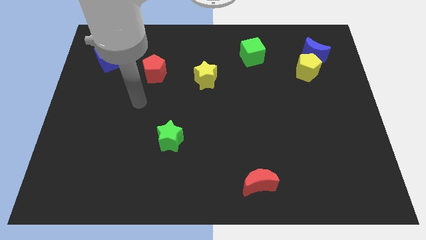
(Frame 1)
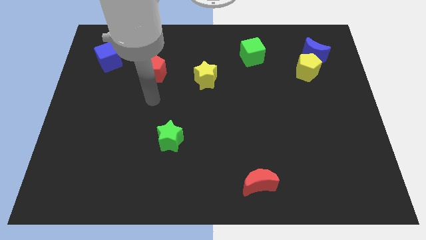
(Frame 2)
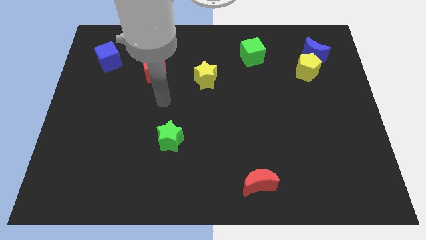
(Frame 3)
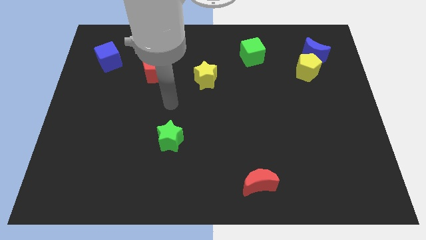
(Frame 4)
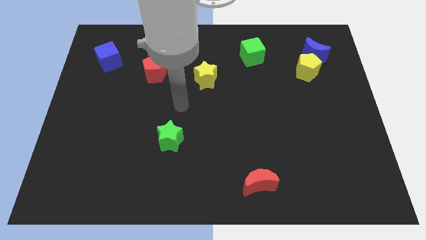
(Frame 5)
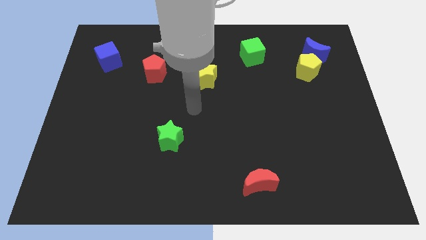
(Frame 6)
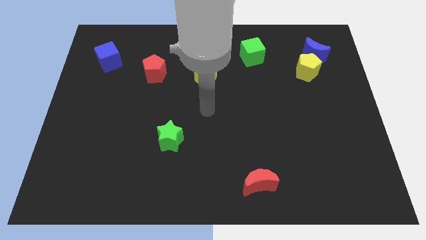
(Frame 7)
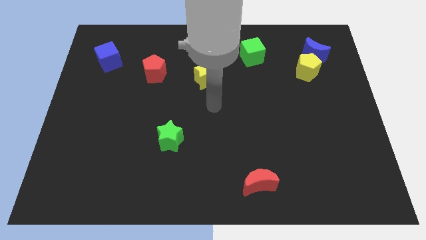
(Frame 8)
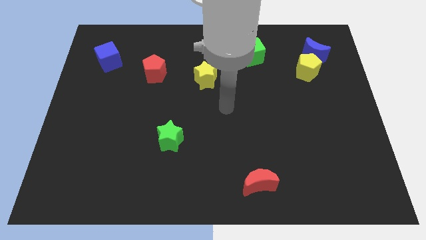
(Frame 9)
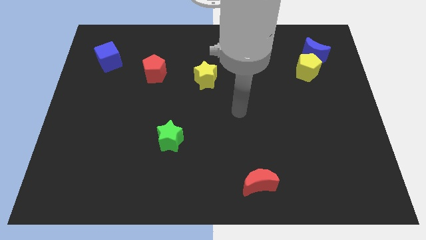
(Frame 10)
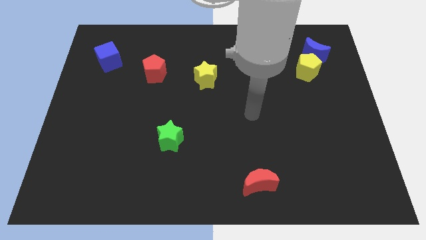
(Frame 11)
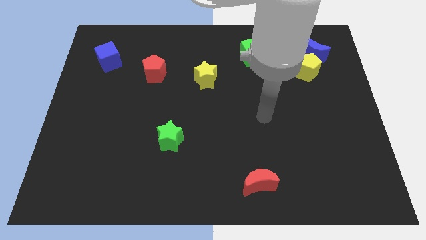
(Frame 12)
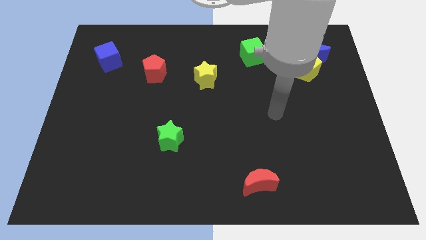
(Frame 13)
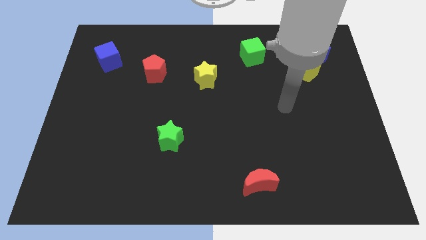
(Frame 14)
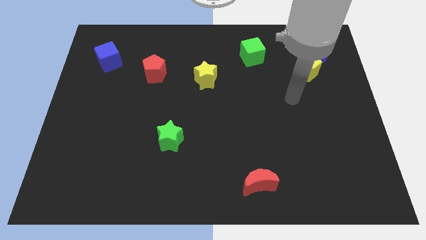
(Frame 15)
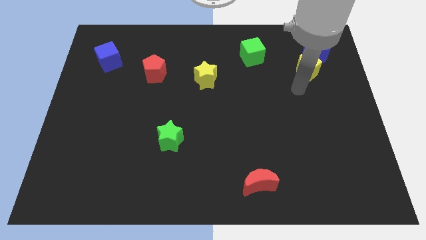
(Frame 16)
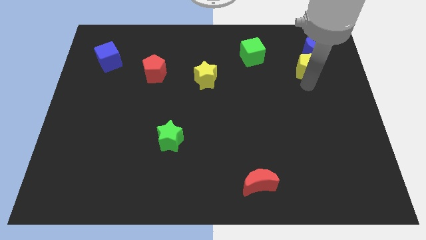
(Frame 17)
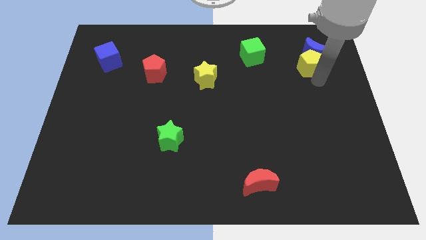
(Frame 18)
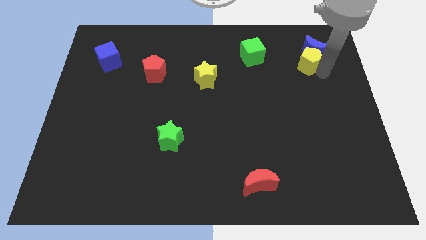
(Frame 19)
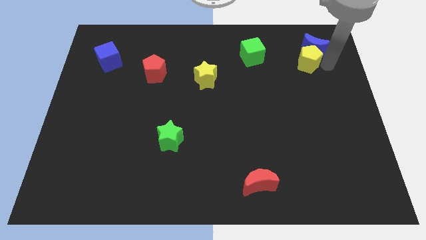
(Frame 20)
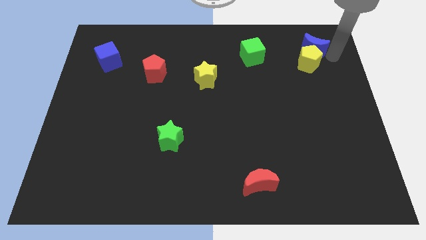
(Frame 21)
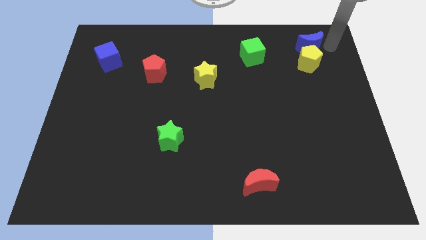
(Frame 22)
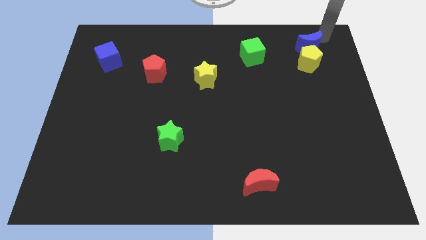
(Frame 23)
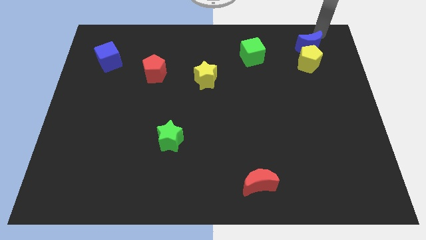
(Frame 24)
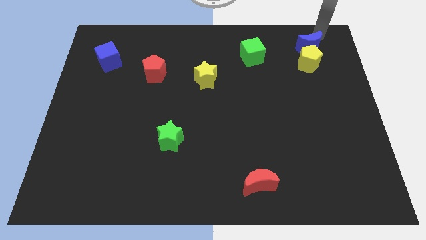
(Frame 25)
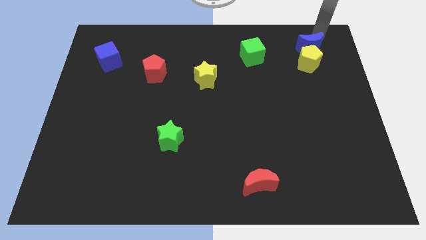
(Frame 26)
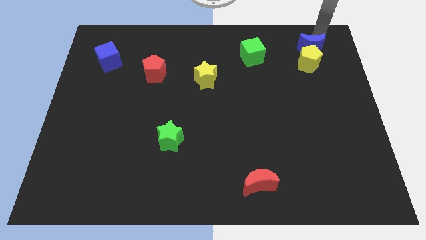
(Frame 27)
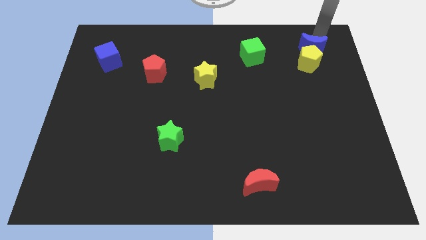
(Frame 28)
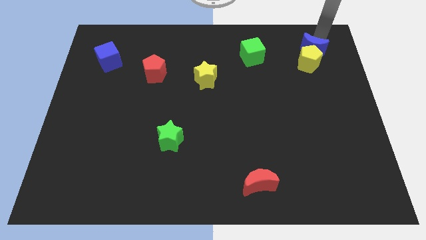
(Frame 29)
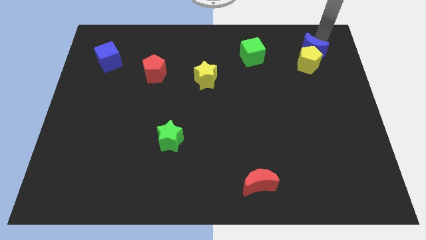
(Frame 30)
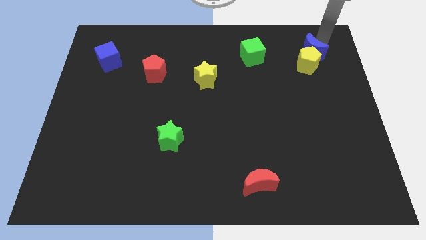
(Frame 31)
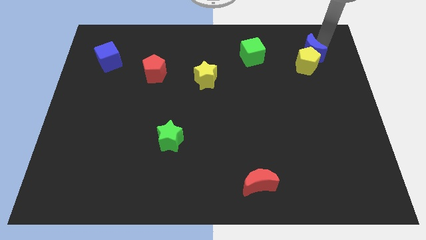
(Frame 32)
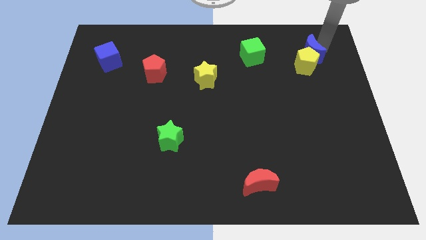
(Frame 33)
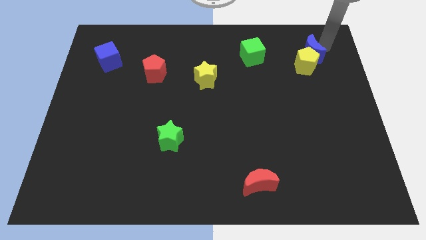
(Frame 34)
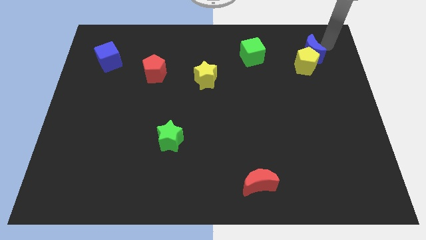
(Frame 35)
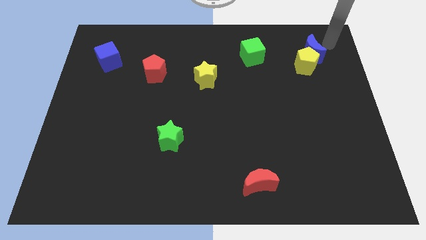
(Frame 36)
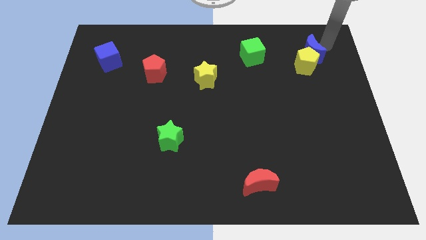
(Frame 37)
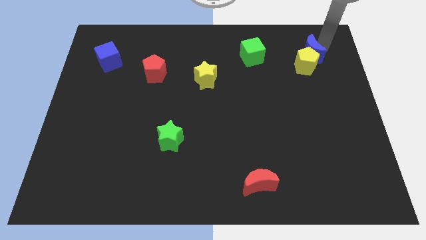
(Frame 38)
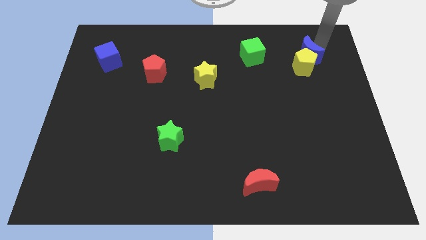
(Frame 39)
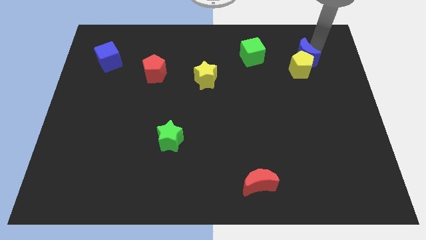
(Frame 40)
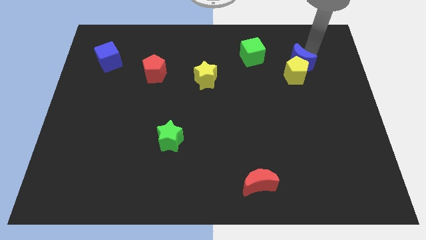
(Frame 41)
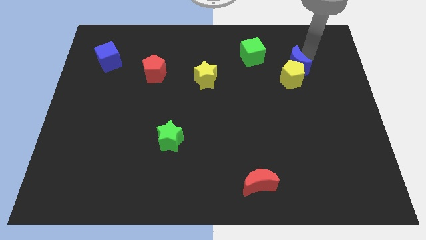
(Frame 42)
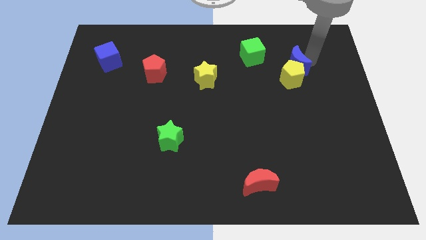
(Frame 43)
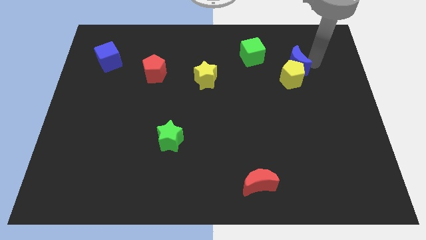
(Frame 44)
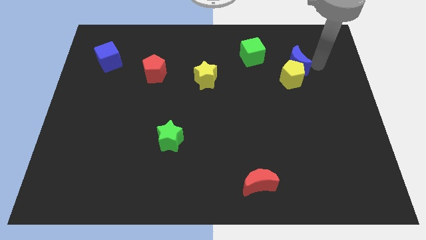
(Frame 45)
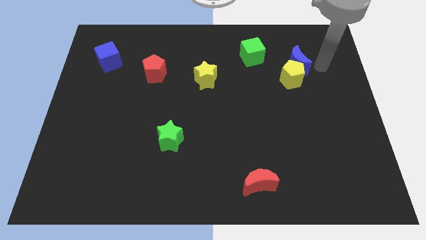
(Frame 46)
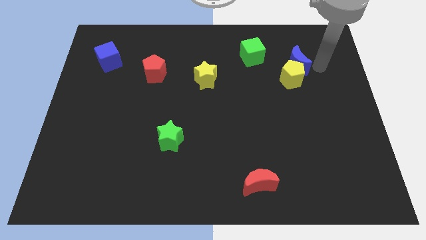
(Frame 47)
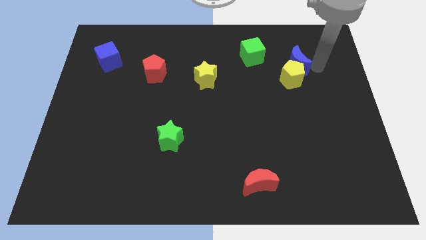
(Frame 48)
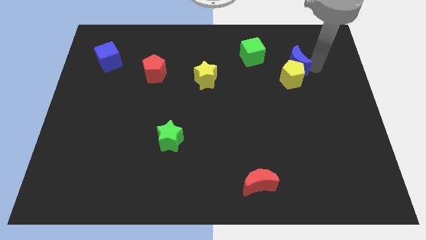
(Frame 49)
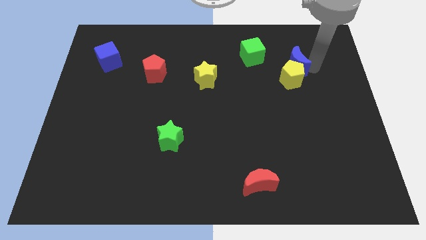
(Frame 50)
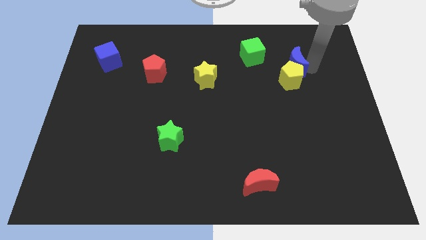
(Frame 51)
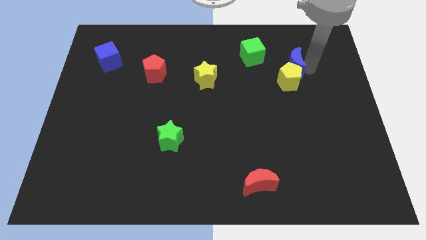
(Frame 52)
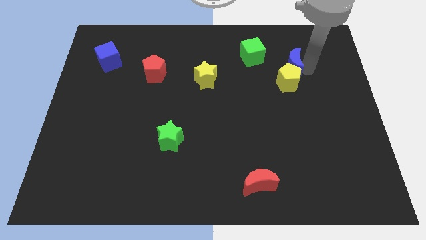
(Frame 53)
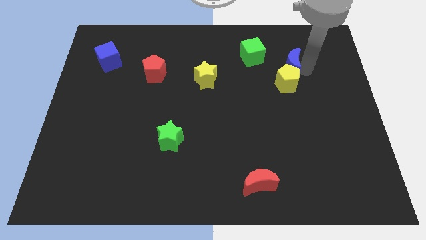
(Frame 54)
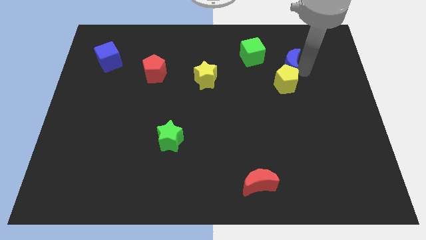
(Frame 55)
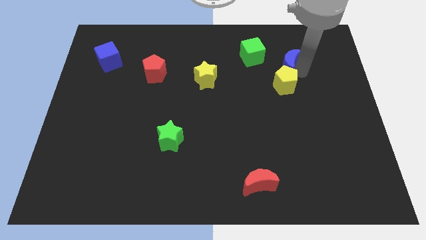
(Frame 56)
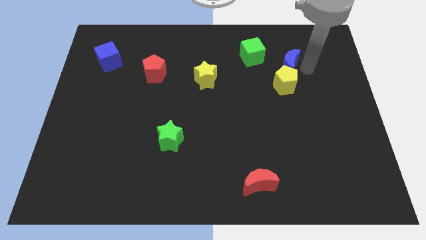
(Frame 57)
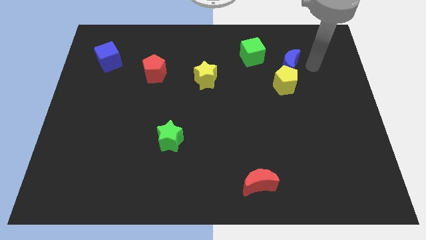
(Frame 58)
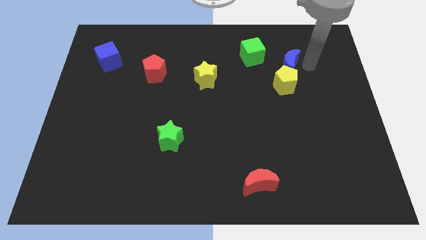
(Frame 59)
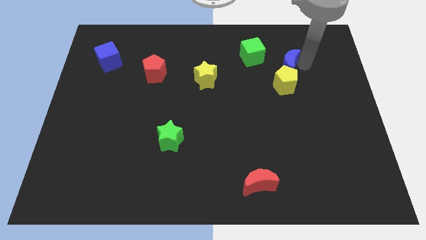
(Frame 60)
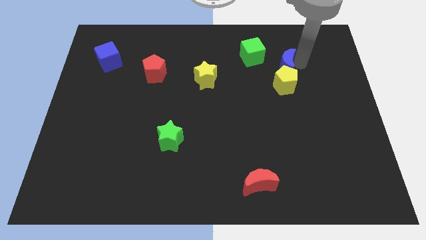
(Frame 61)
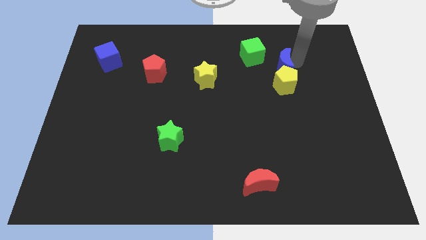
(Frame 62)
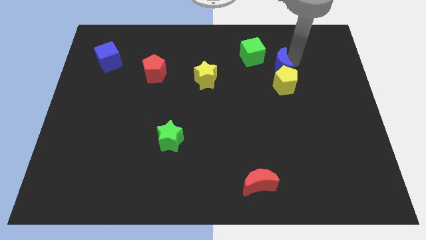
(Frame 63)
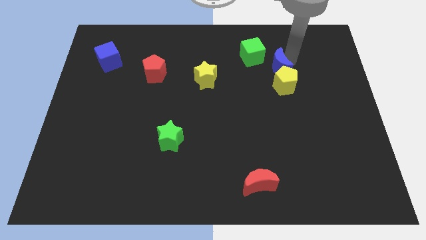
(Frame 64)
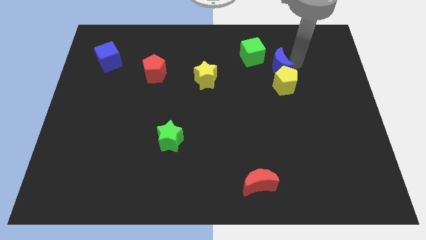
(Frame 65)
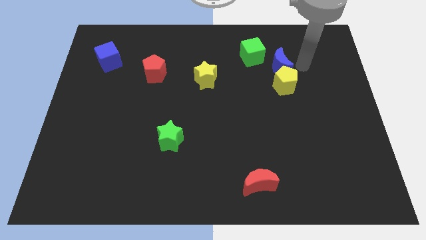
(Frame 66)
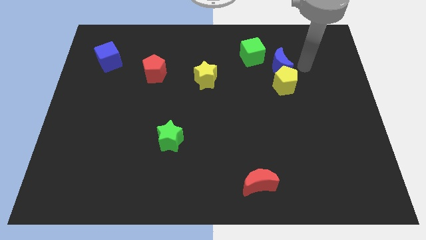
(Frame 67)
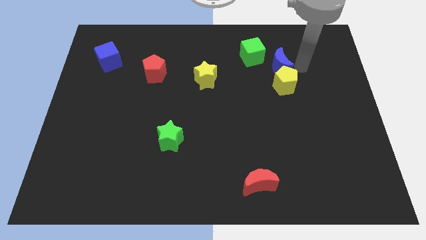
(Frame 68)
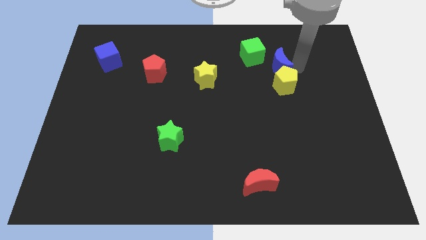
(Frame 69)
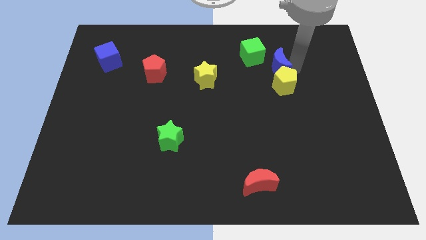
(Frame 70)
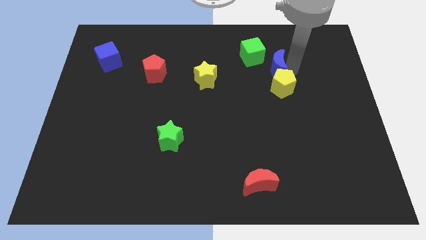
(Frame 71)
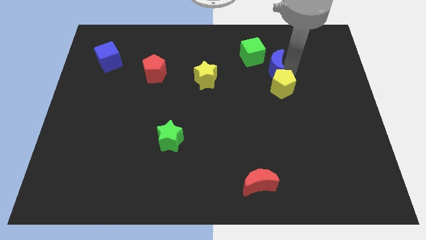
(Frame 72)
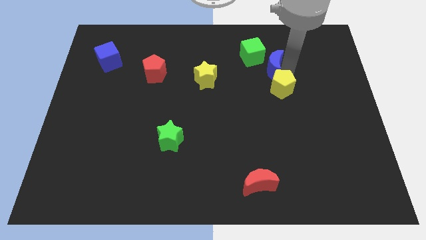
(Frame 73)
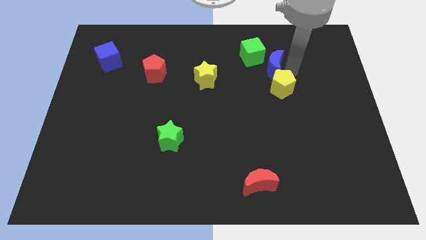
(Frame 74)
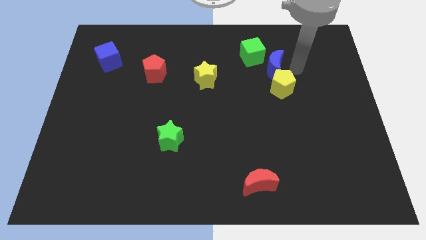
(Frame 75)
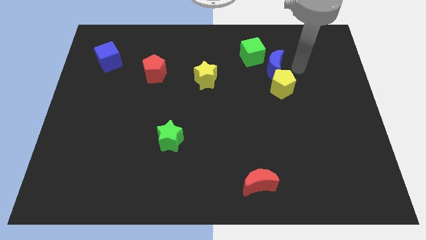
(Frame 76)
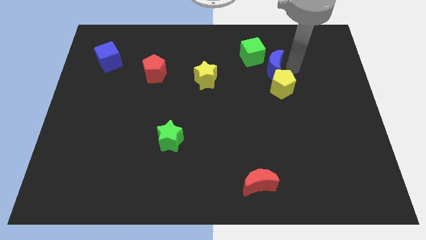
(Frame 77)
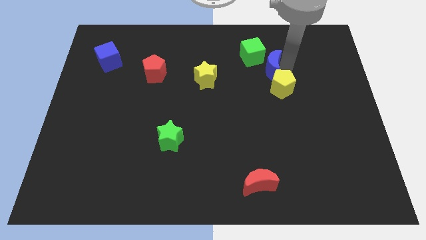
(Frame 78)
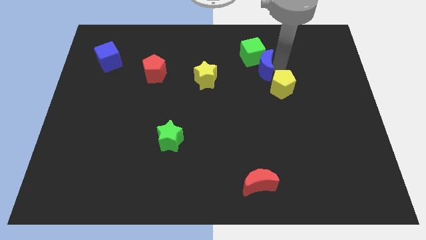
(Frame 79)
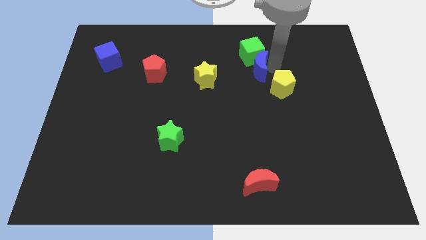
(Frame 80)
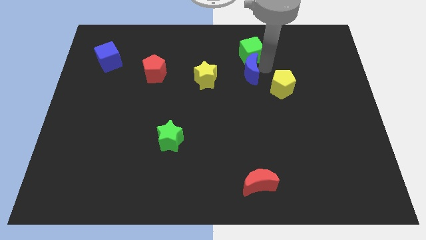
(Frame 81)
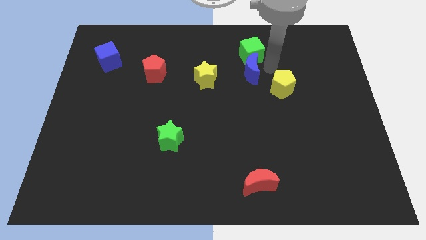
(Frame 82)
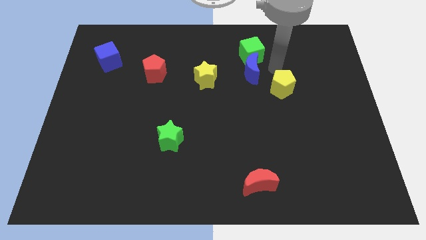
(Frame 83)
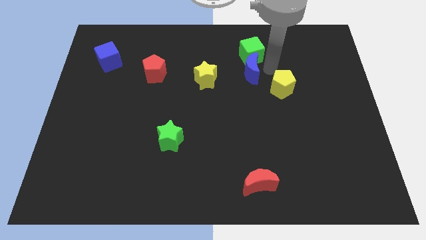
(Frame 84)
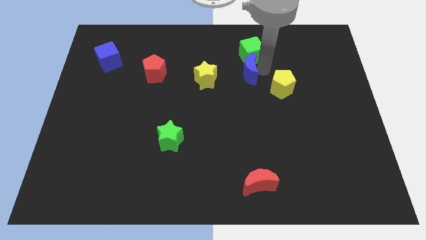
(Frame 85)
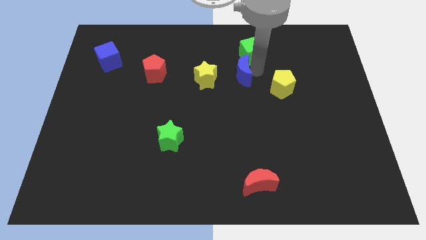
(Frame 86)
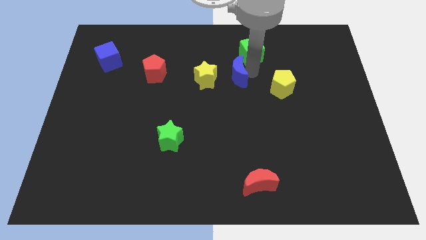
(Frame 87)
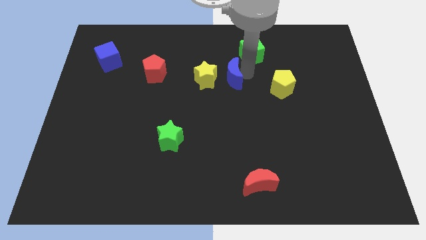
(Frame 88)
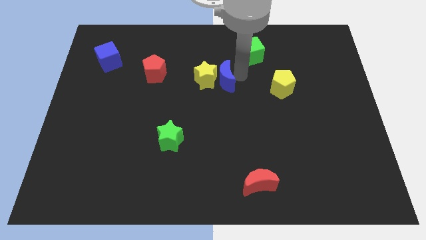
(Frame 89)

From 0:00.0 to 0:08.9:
move the blue moon towards the yellow star
